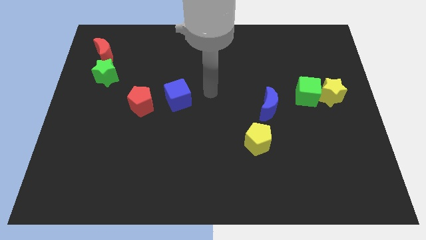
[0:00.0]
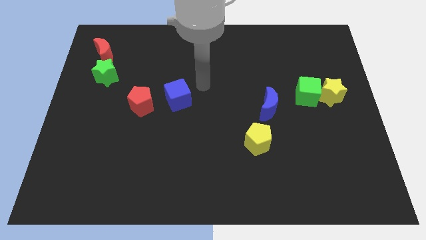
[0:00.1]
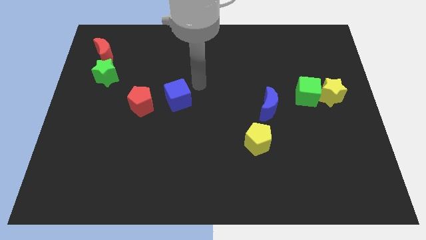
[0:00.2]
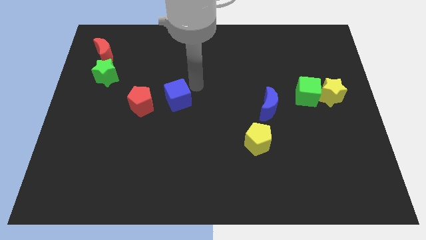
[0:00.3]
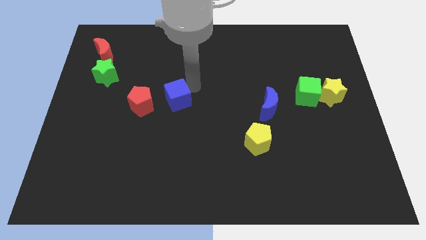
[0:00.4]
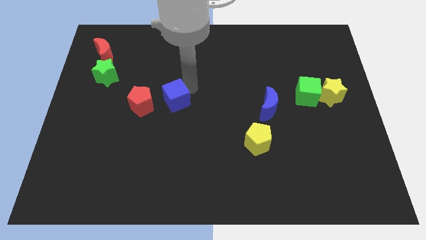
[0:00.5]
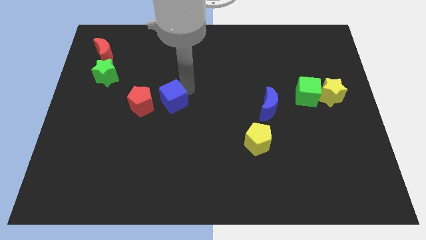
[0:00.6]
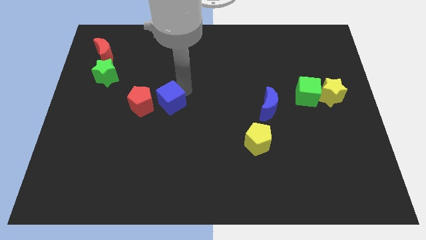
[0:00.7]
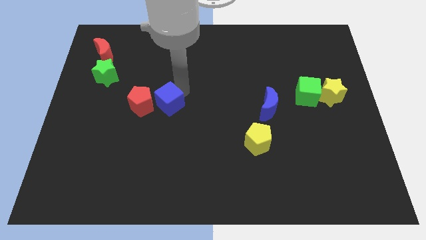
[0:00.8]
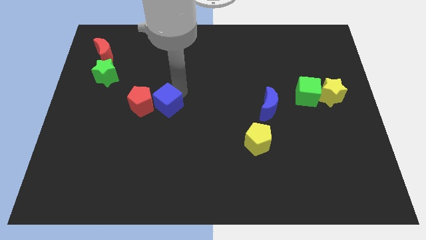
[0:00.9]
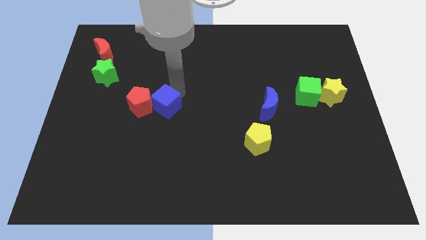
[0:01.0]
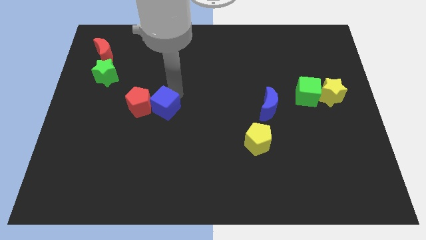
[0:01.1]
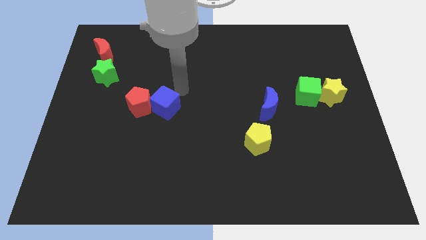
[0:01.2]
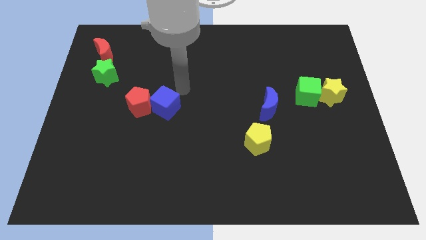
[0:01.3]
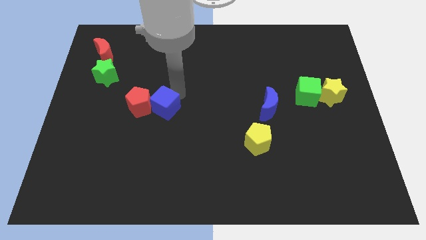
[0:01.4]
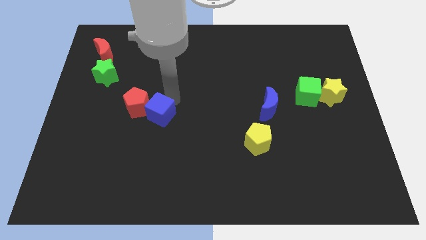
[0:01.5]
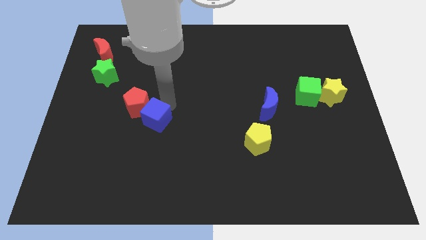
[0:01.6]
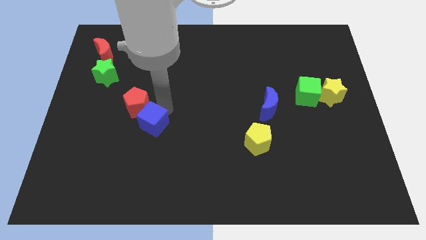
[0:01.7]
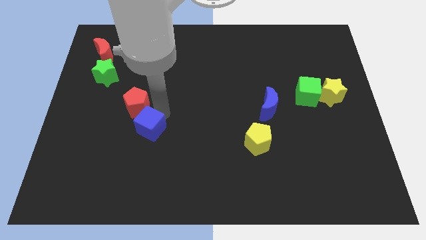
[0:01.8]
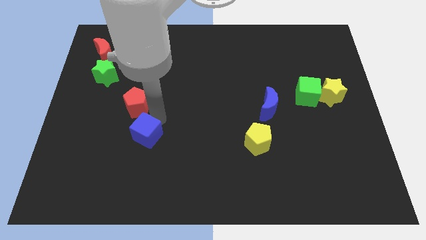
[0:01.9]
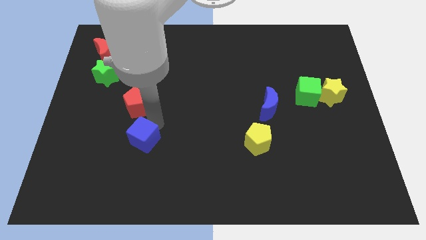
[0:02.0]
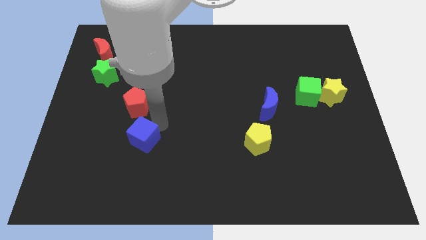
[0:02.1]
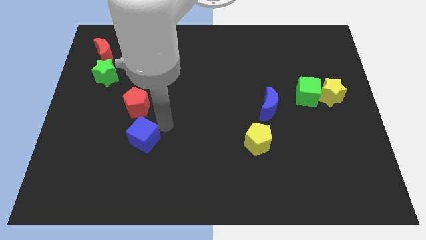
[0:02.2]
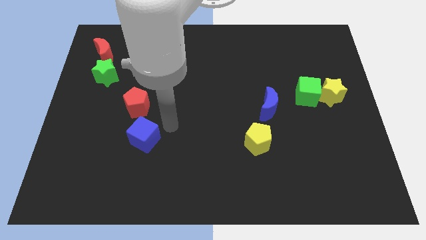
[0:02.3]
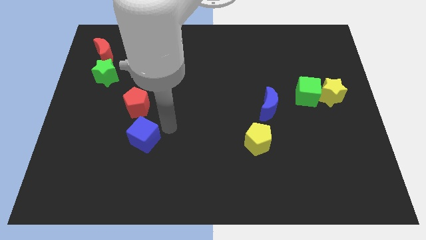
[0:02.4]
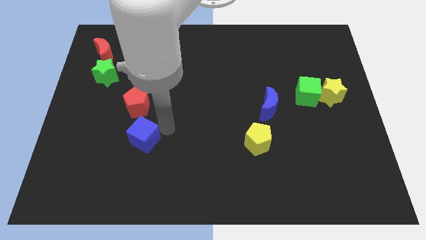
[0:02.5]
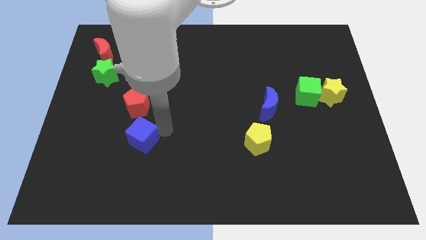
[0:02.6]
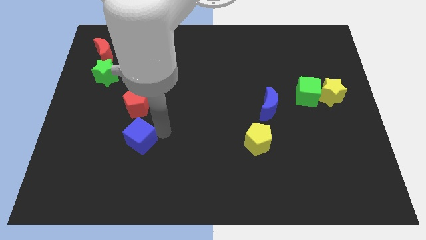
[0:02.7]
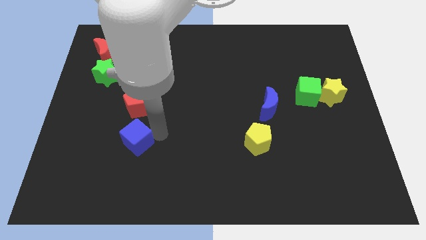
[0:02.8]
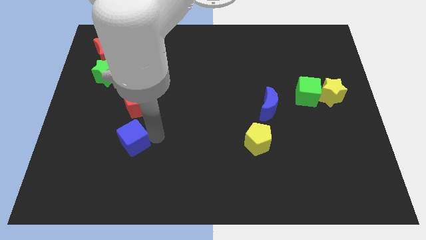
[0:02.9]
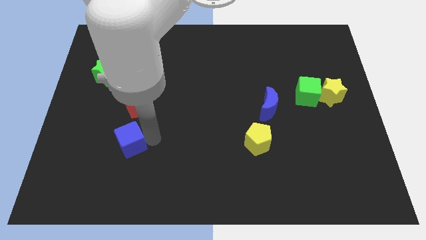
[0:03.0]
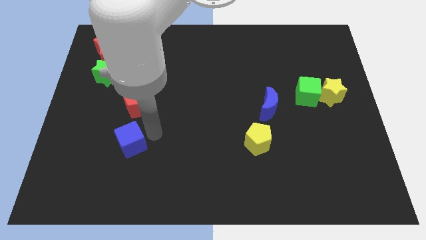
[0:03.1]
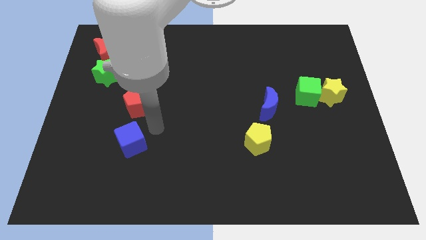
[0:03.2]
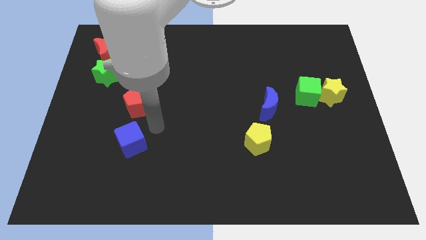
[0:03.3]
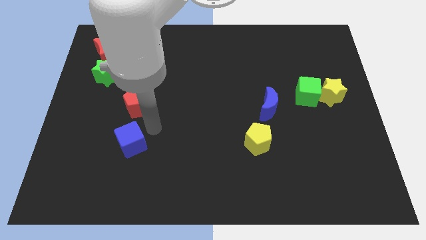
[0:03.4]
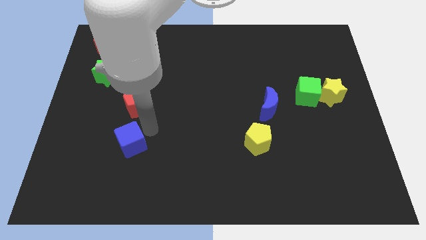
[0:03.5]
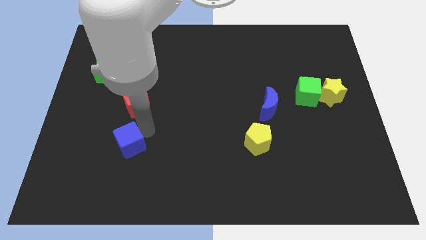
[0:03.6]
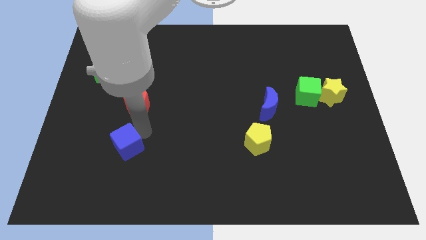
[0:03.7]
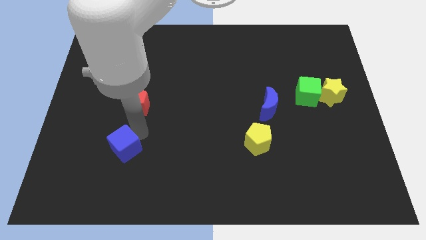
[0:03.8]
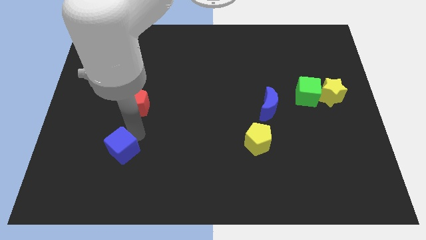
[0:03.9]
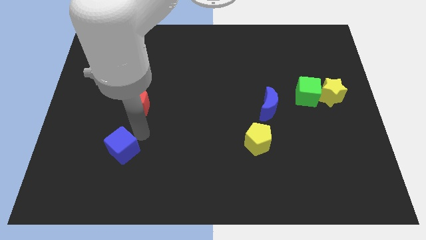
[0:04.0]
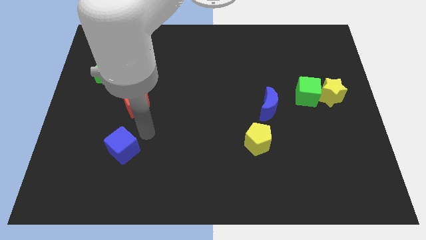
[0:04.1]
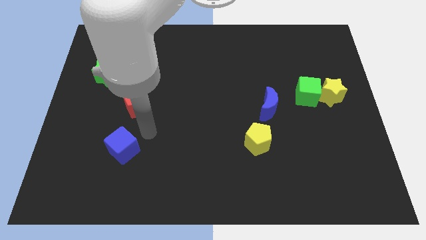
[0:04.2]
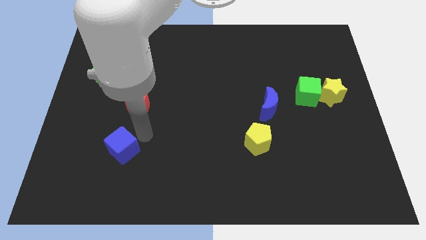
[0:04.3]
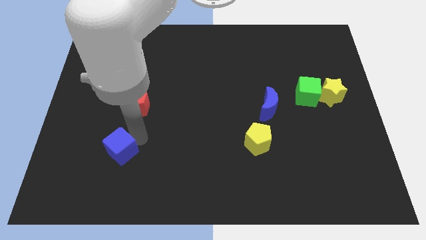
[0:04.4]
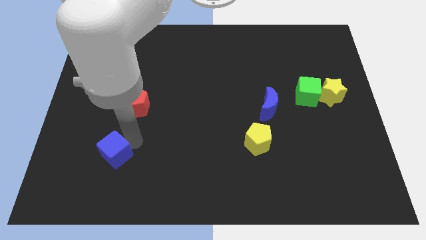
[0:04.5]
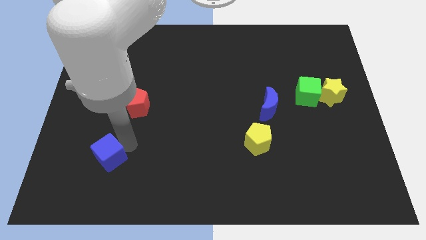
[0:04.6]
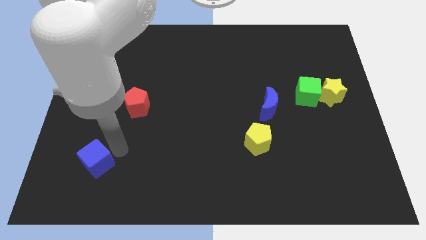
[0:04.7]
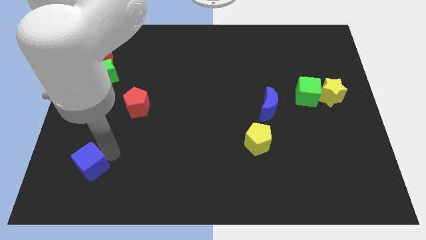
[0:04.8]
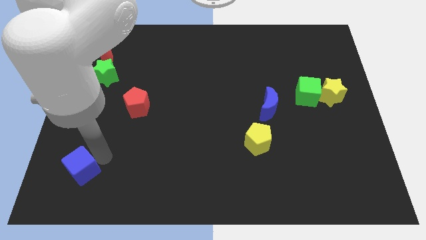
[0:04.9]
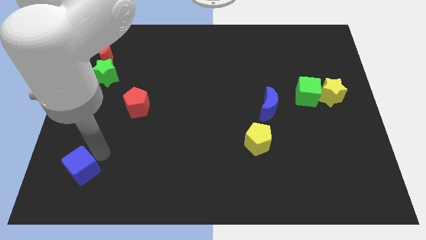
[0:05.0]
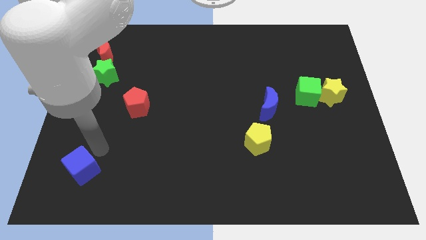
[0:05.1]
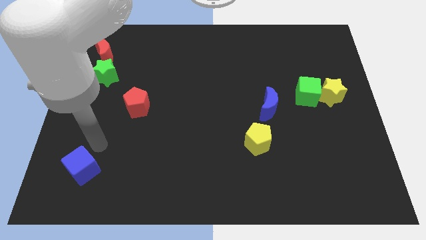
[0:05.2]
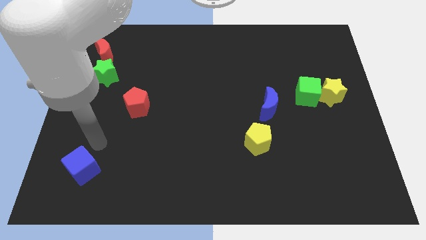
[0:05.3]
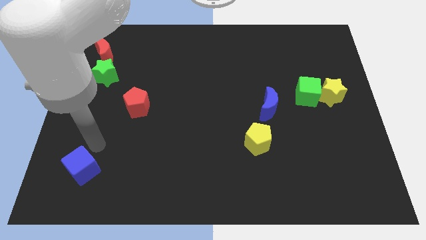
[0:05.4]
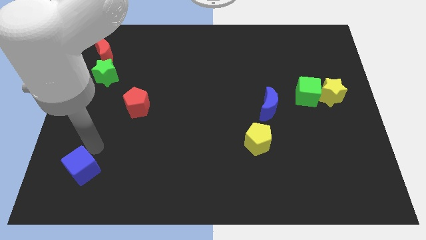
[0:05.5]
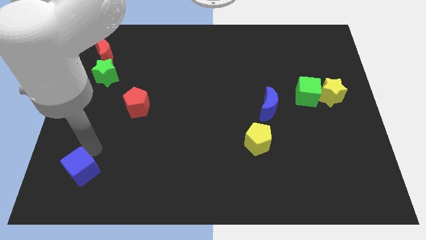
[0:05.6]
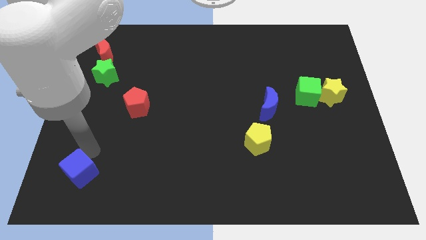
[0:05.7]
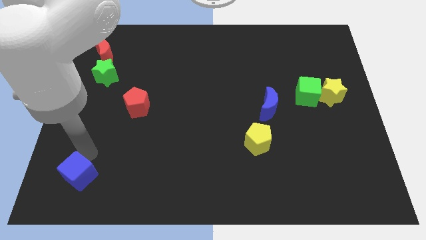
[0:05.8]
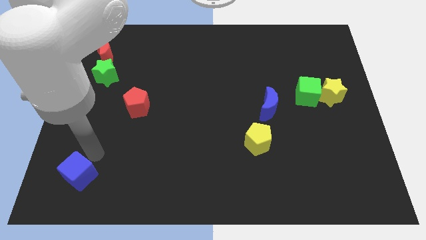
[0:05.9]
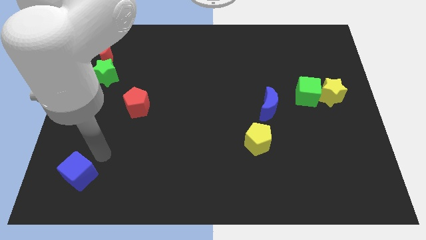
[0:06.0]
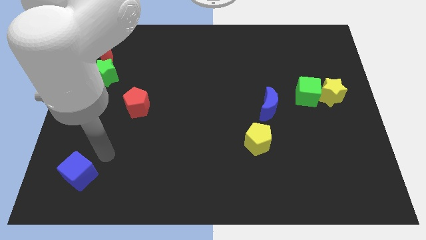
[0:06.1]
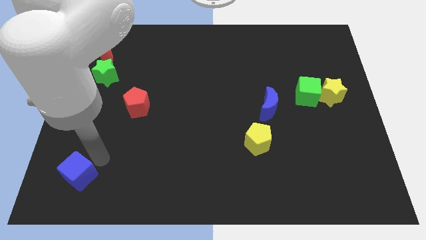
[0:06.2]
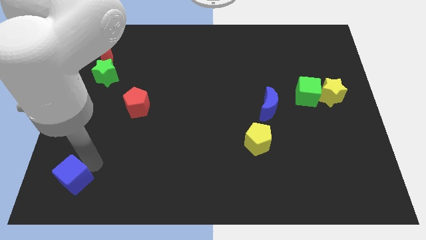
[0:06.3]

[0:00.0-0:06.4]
move the blue cube to the lower left corner

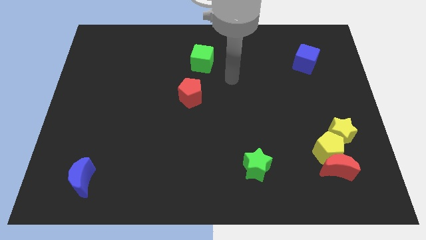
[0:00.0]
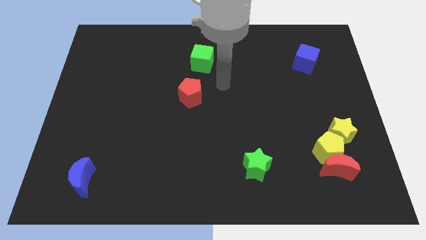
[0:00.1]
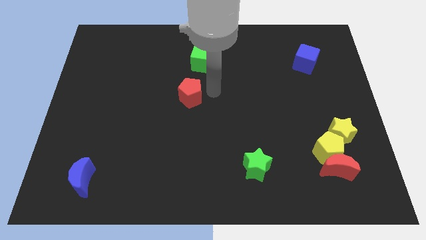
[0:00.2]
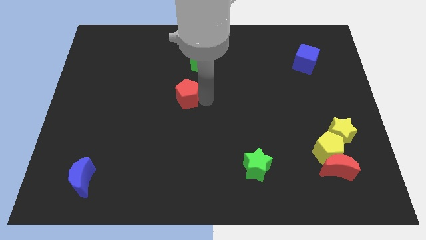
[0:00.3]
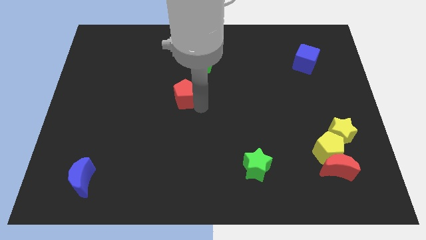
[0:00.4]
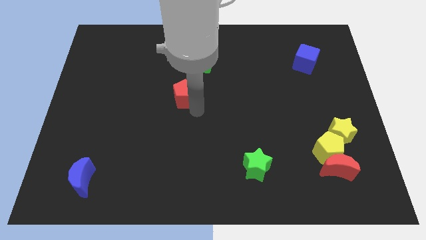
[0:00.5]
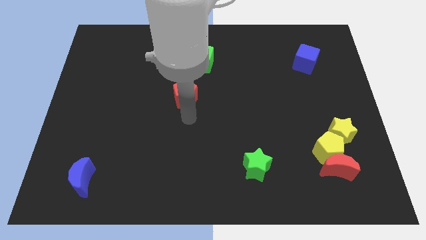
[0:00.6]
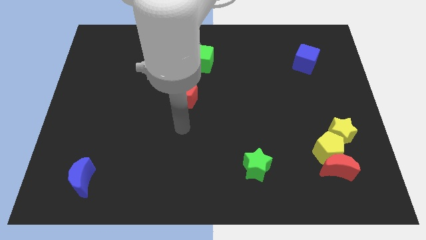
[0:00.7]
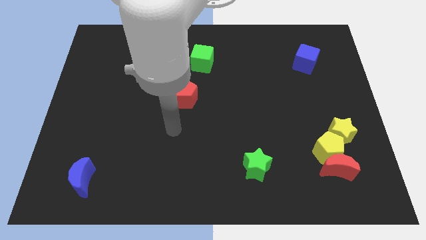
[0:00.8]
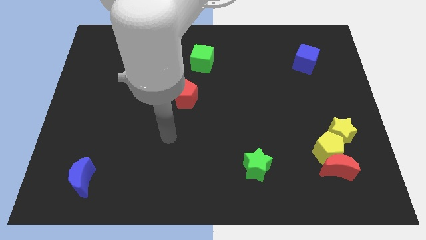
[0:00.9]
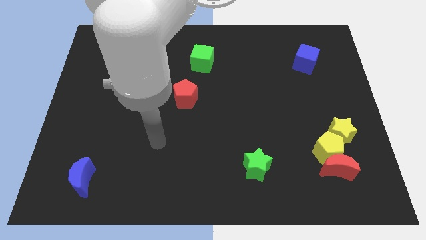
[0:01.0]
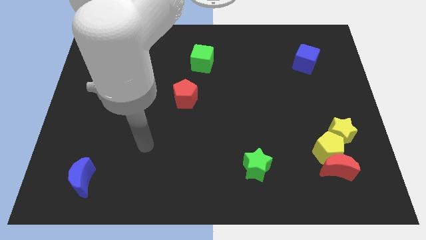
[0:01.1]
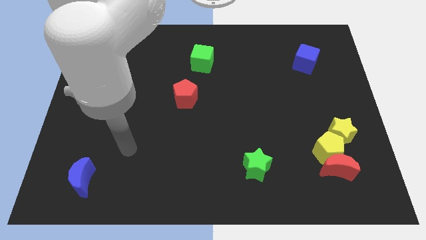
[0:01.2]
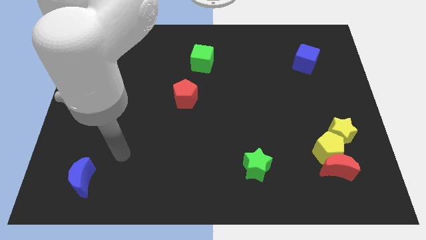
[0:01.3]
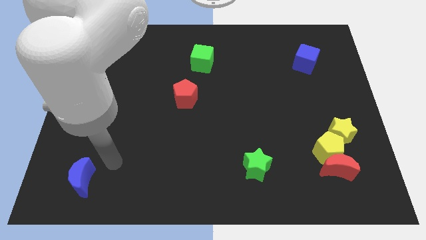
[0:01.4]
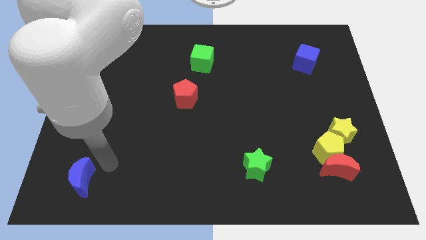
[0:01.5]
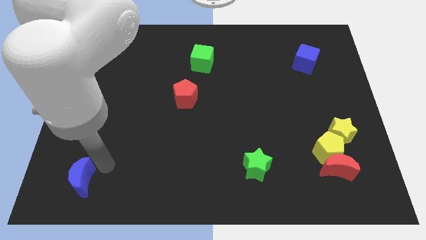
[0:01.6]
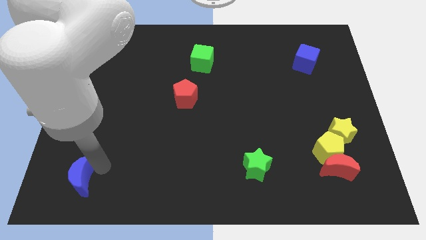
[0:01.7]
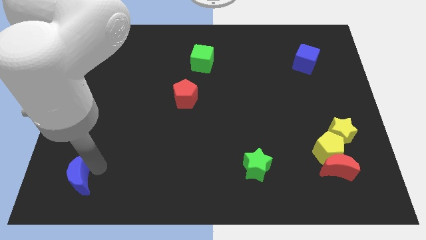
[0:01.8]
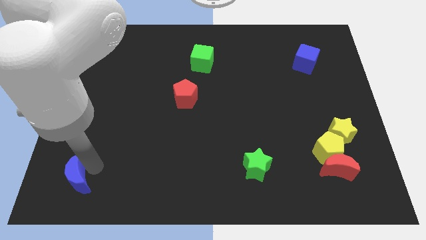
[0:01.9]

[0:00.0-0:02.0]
push the blue moon to the bottom left corner
